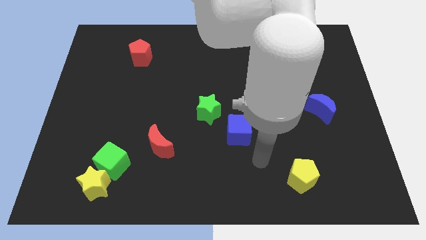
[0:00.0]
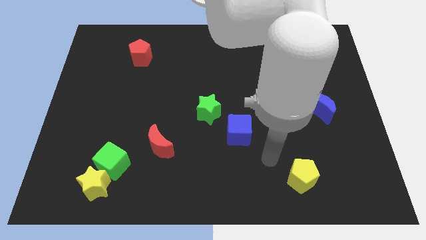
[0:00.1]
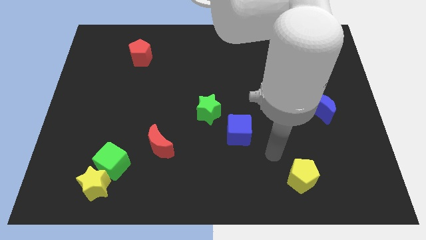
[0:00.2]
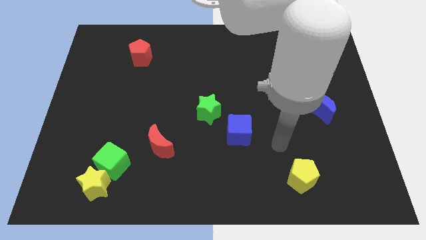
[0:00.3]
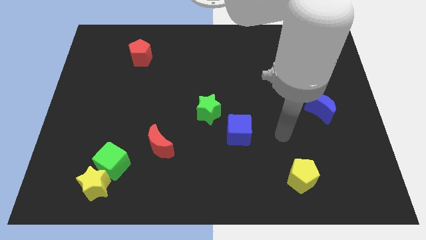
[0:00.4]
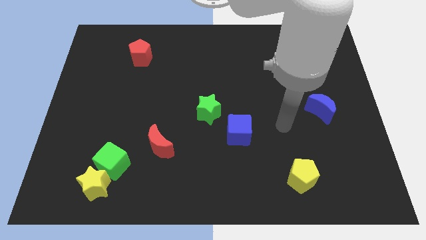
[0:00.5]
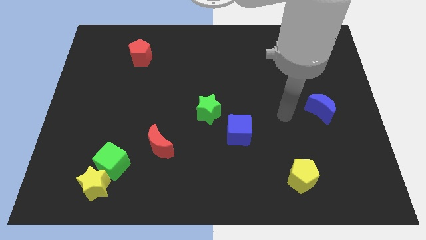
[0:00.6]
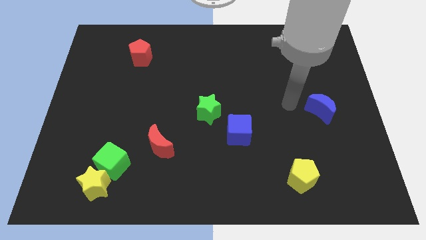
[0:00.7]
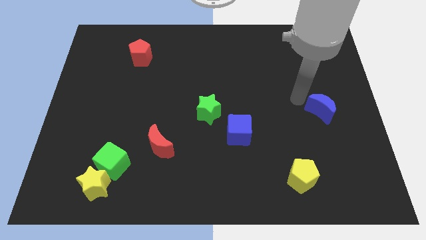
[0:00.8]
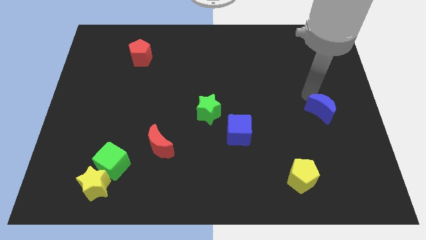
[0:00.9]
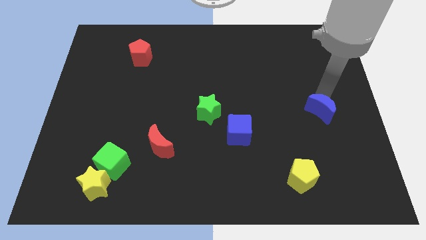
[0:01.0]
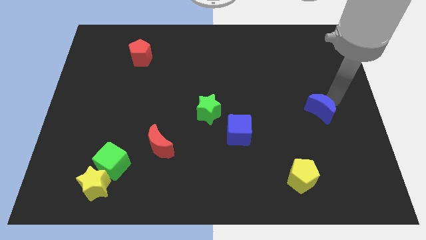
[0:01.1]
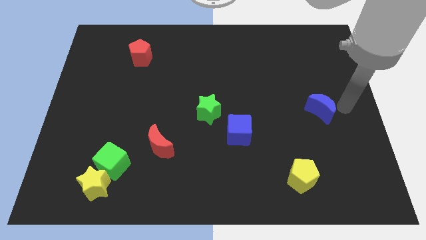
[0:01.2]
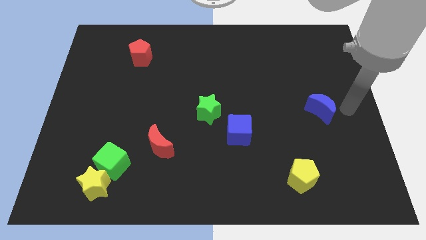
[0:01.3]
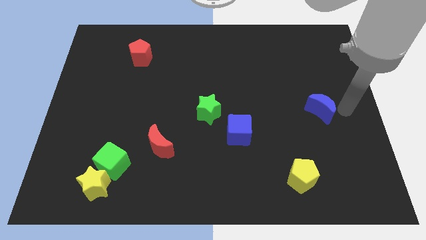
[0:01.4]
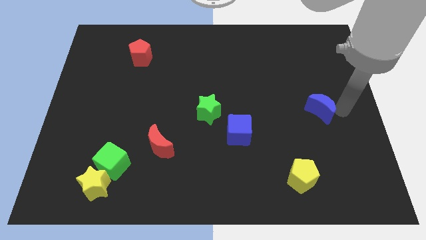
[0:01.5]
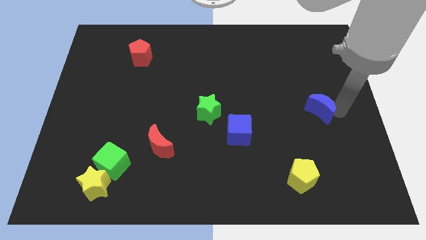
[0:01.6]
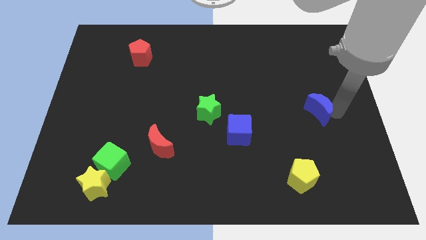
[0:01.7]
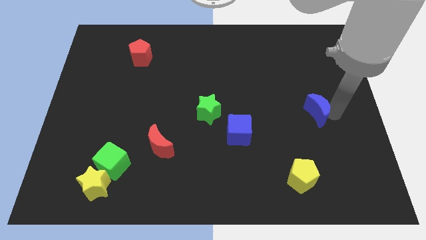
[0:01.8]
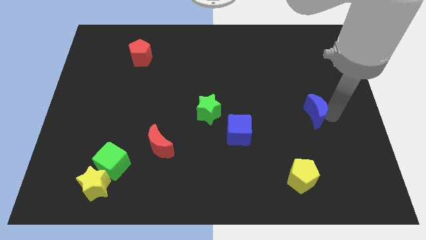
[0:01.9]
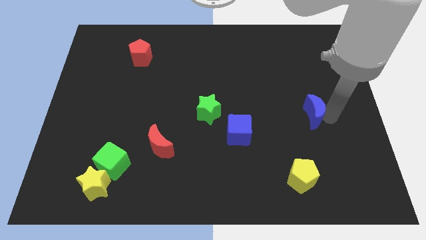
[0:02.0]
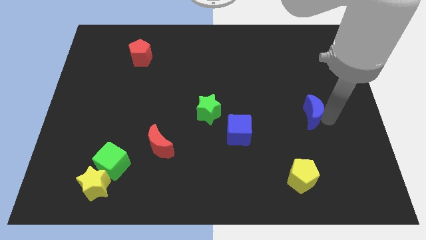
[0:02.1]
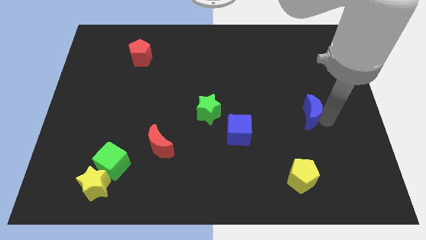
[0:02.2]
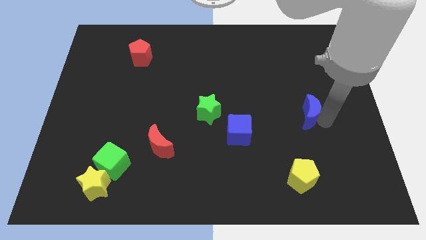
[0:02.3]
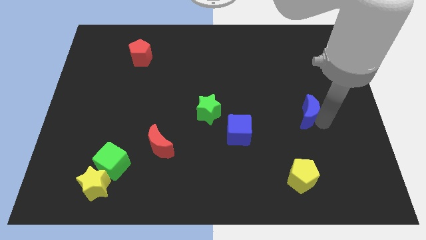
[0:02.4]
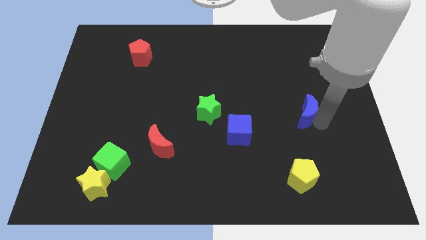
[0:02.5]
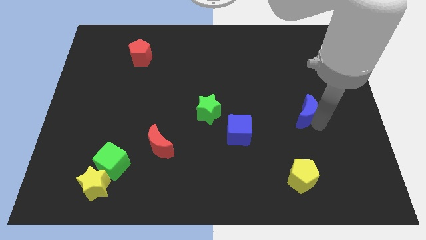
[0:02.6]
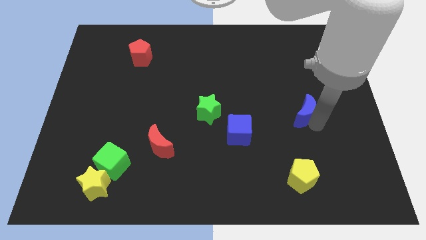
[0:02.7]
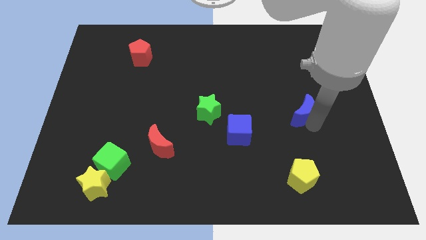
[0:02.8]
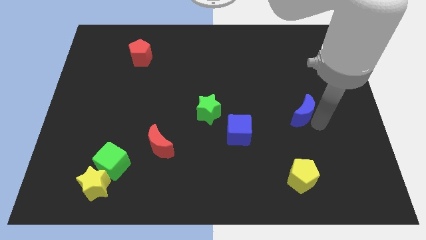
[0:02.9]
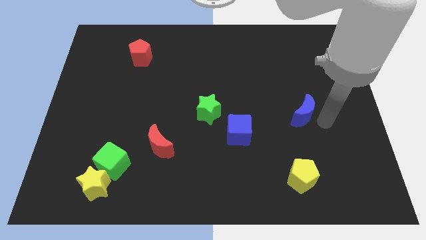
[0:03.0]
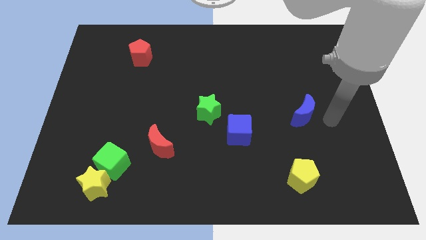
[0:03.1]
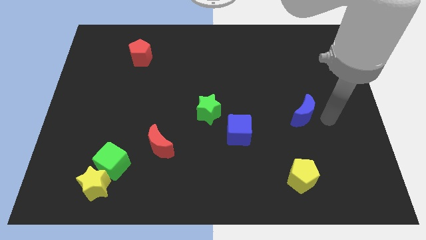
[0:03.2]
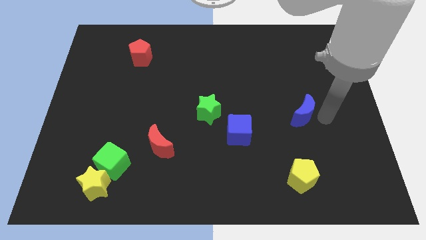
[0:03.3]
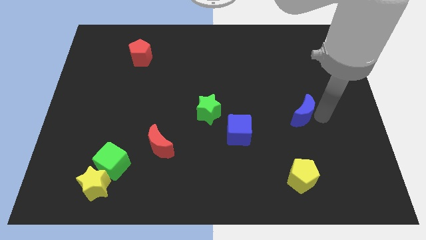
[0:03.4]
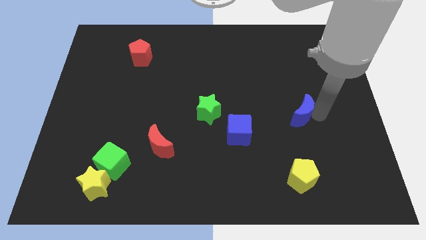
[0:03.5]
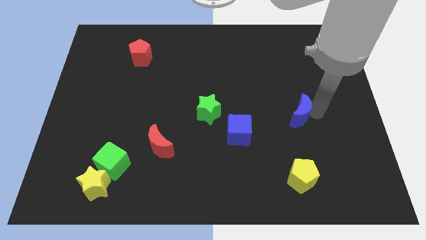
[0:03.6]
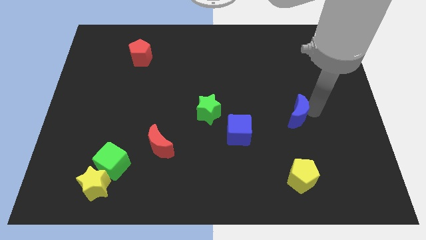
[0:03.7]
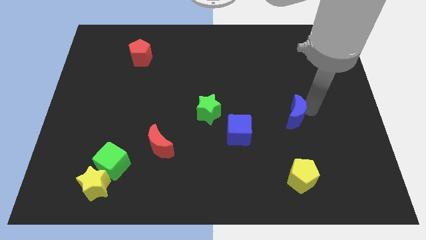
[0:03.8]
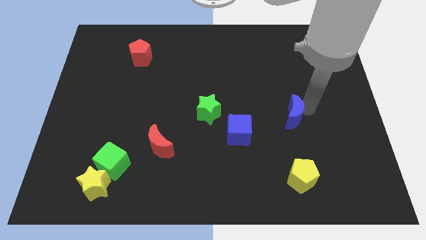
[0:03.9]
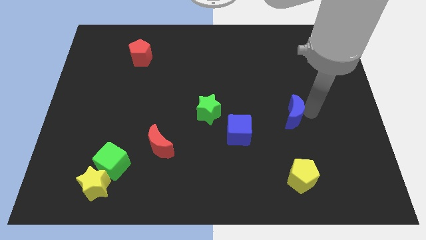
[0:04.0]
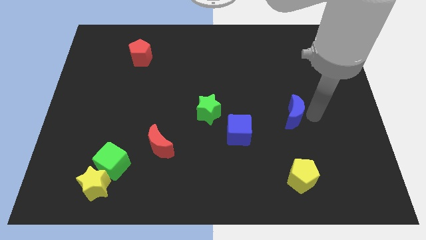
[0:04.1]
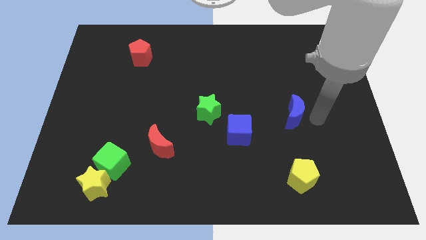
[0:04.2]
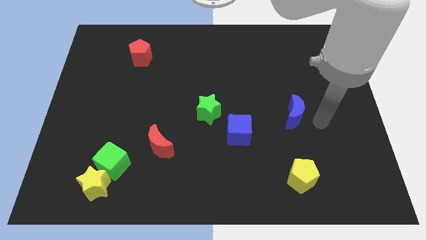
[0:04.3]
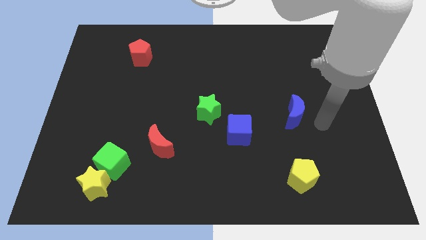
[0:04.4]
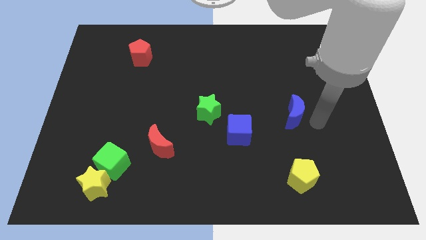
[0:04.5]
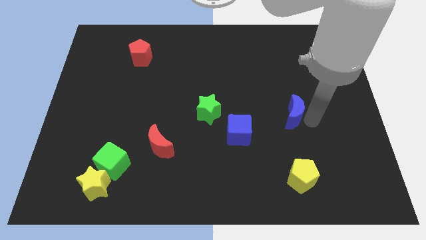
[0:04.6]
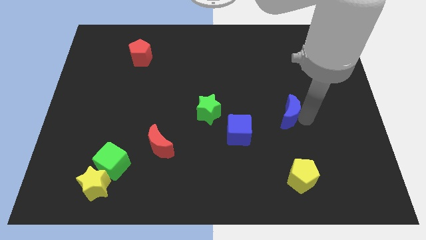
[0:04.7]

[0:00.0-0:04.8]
move the blue moon to the left a little bit

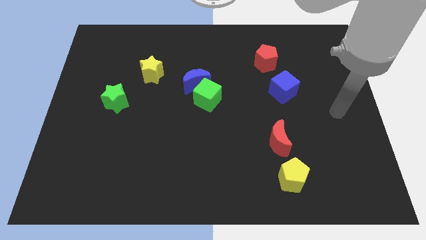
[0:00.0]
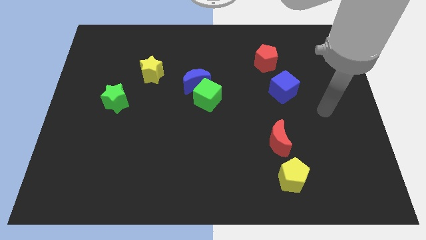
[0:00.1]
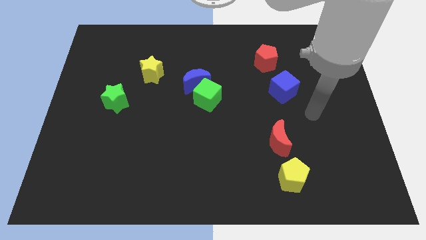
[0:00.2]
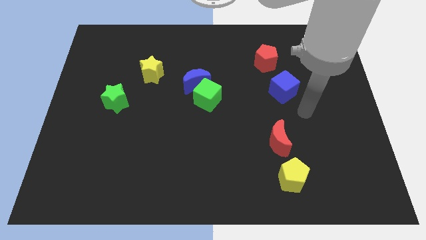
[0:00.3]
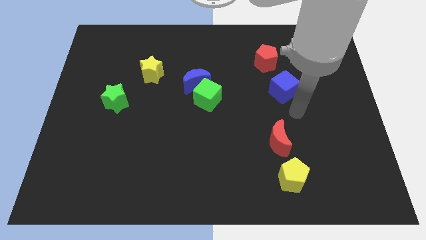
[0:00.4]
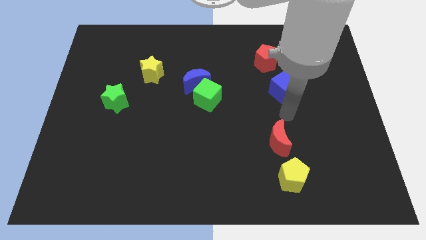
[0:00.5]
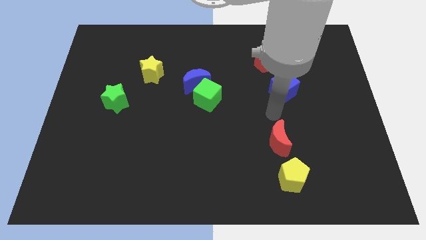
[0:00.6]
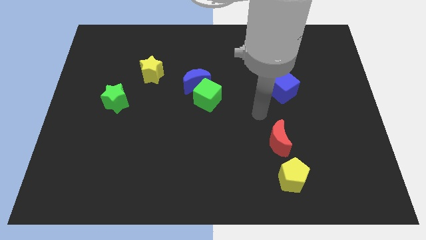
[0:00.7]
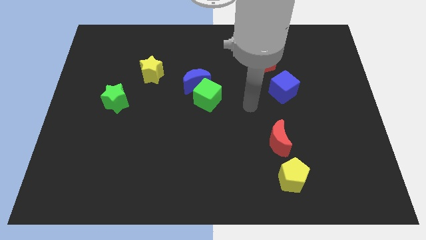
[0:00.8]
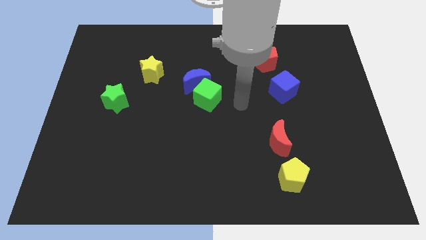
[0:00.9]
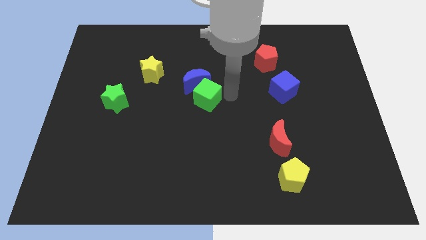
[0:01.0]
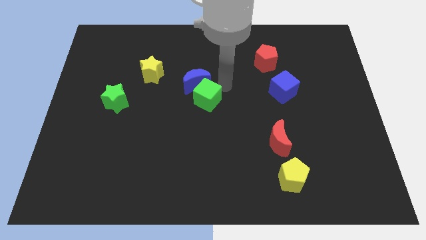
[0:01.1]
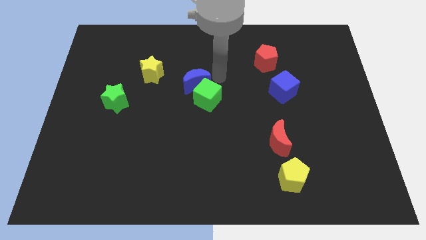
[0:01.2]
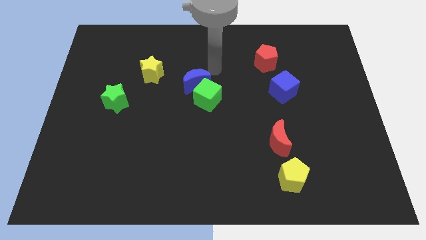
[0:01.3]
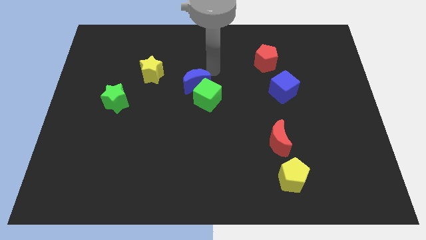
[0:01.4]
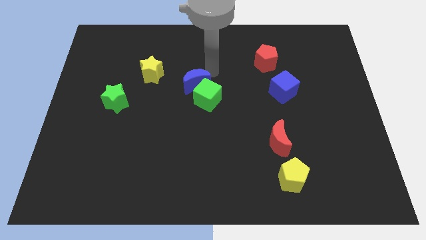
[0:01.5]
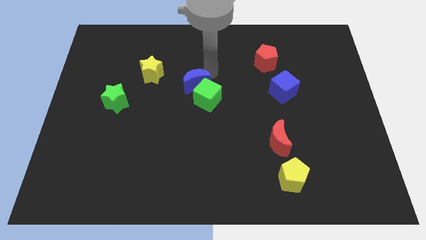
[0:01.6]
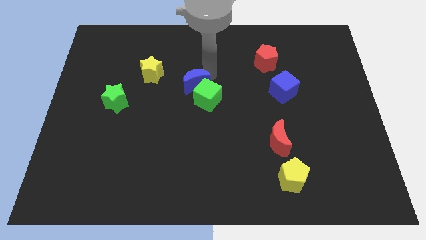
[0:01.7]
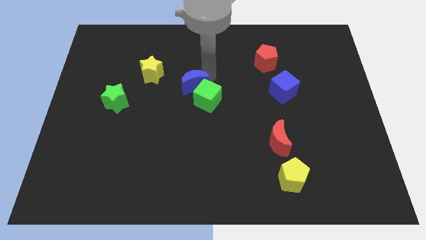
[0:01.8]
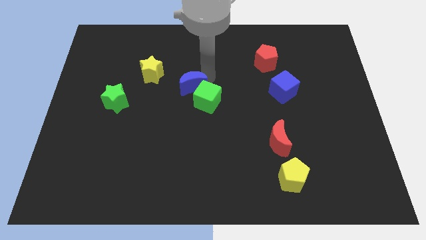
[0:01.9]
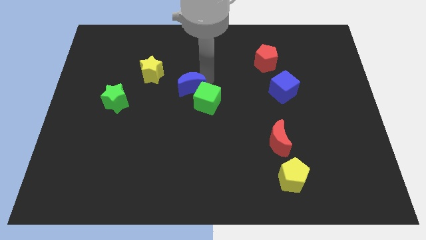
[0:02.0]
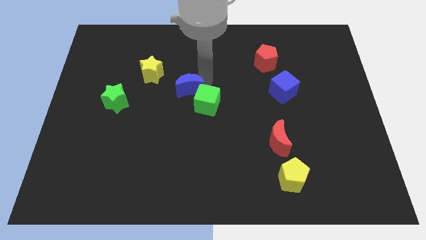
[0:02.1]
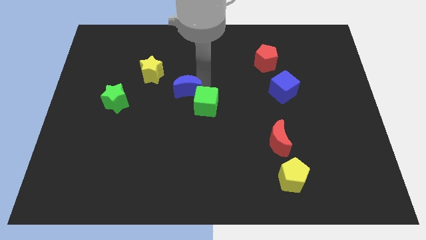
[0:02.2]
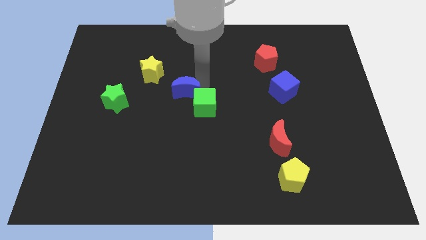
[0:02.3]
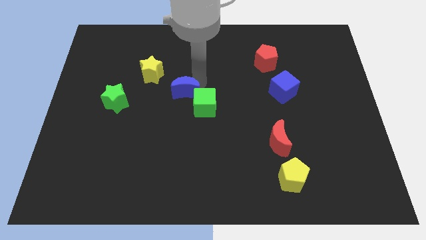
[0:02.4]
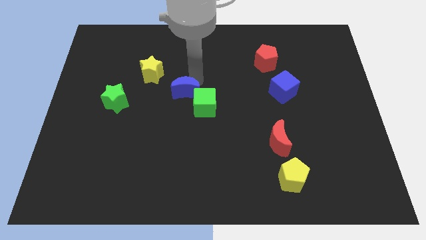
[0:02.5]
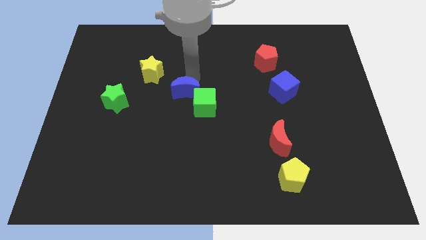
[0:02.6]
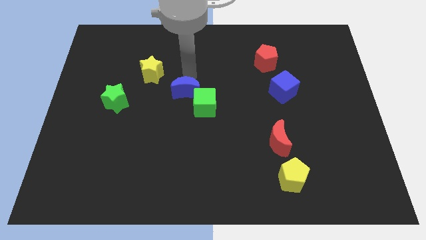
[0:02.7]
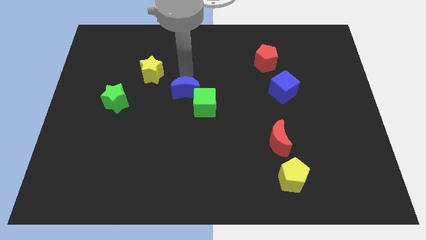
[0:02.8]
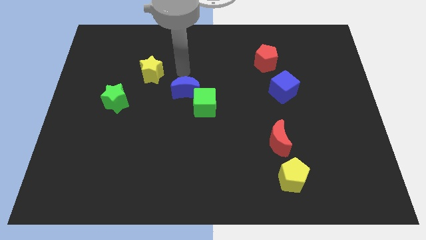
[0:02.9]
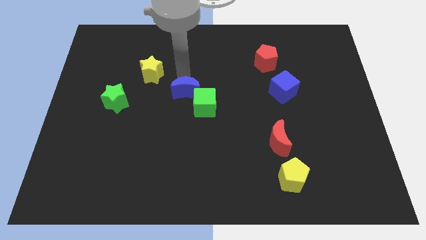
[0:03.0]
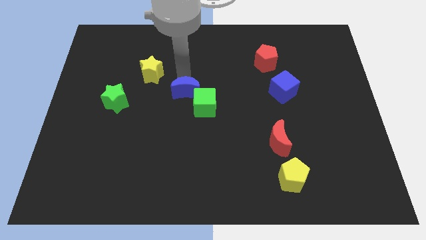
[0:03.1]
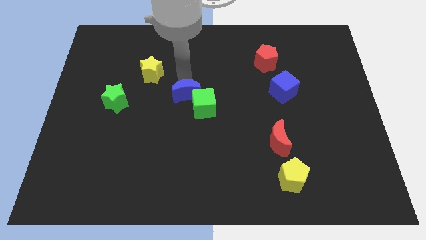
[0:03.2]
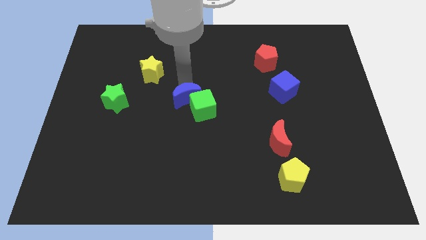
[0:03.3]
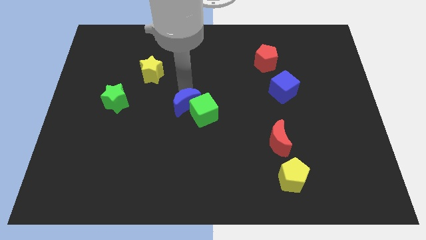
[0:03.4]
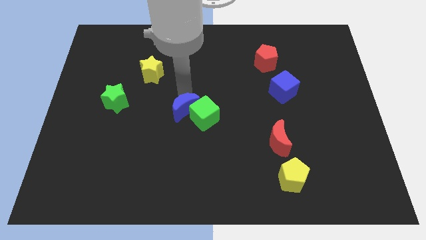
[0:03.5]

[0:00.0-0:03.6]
slide the blue moon a little bit down

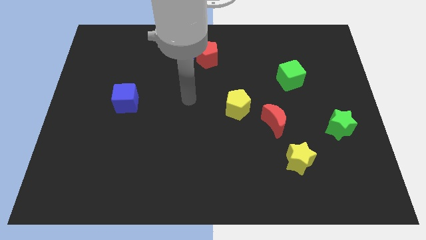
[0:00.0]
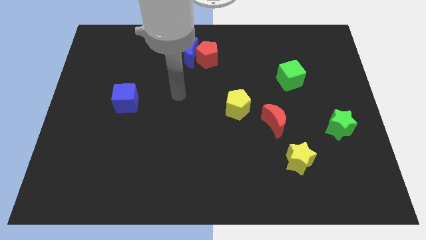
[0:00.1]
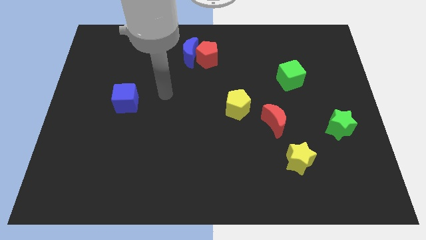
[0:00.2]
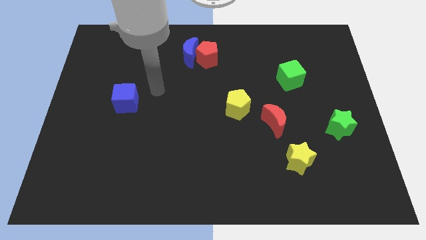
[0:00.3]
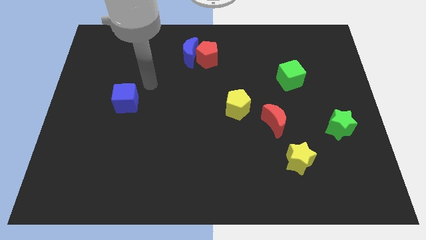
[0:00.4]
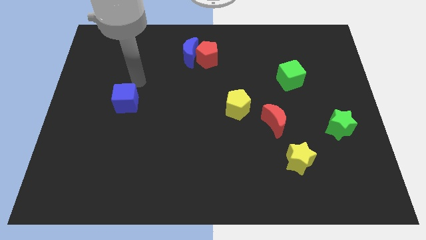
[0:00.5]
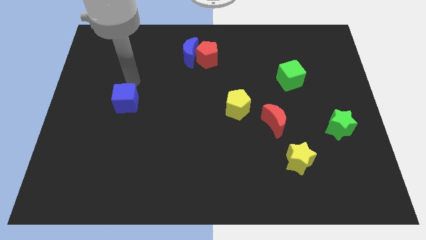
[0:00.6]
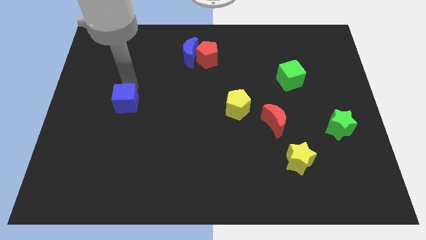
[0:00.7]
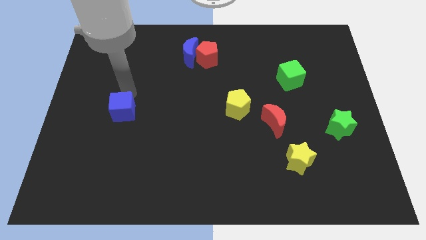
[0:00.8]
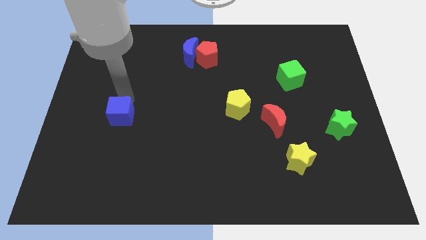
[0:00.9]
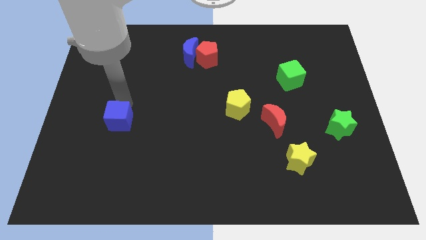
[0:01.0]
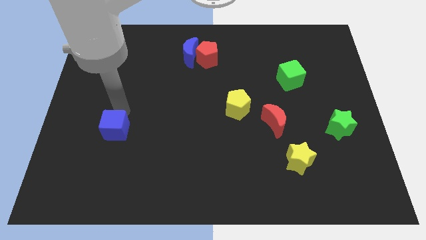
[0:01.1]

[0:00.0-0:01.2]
slightly move the blue cube downwards
